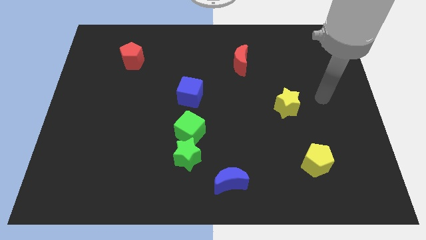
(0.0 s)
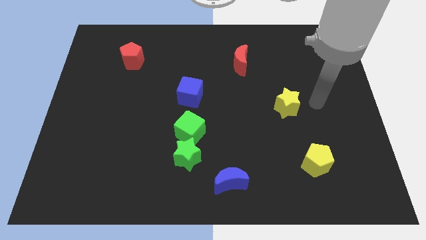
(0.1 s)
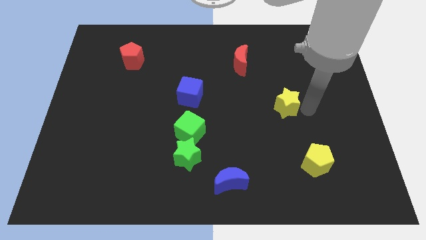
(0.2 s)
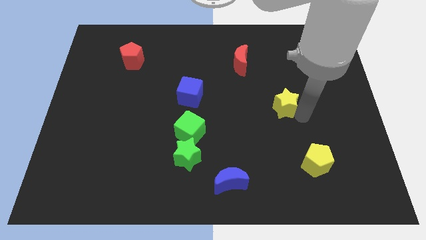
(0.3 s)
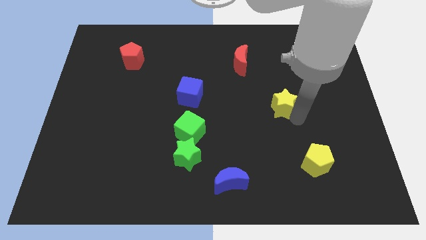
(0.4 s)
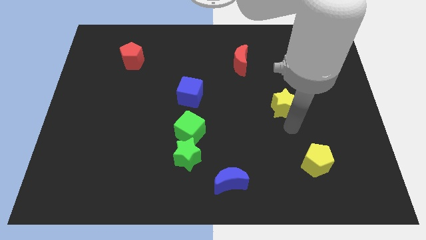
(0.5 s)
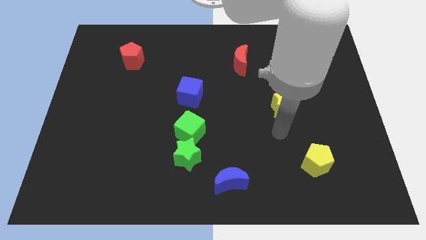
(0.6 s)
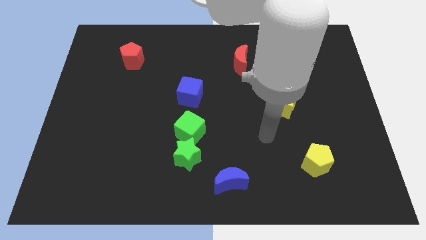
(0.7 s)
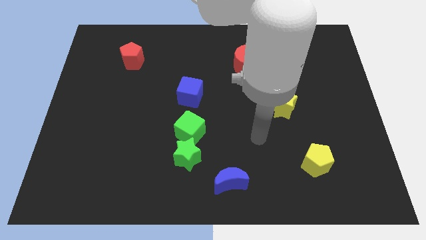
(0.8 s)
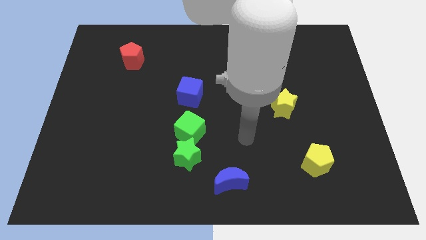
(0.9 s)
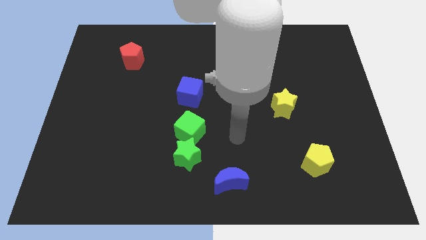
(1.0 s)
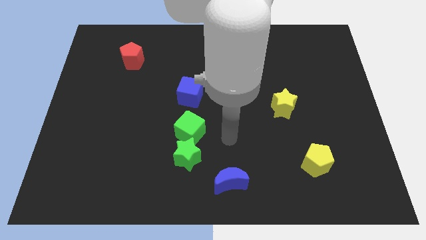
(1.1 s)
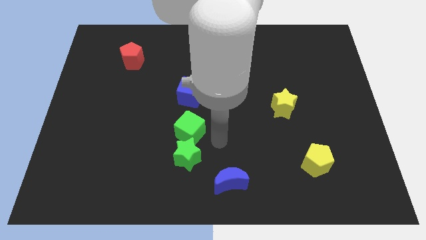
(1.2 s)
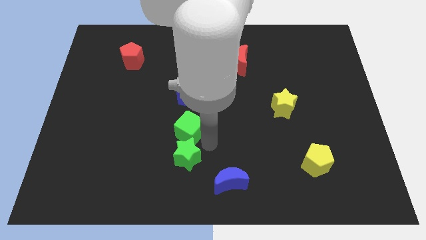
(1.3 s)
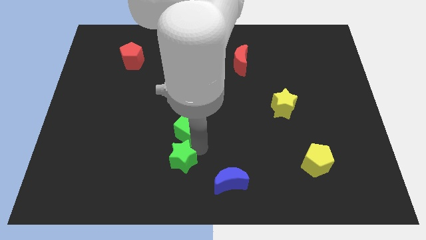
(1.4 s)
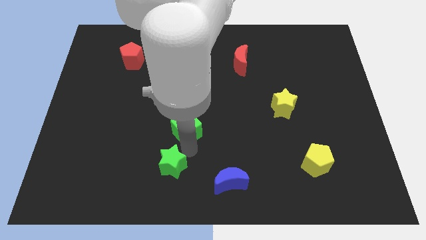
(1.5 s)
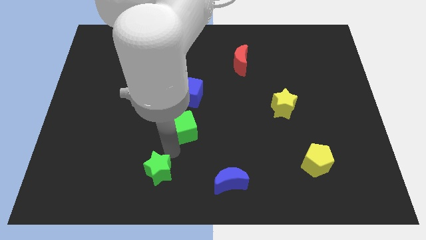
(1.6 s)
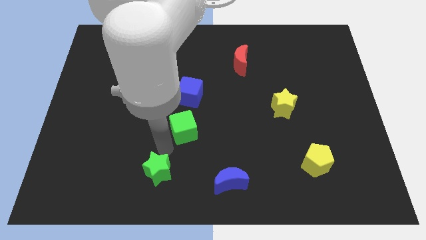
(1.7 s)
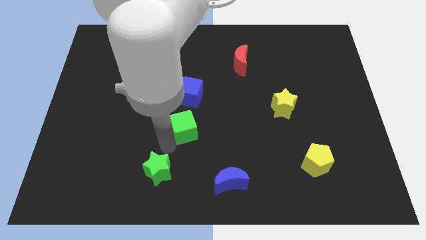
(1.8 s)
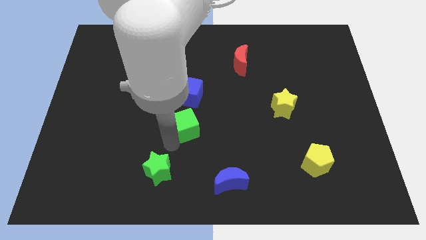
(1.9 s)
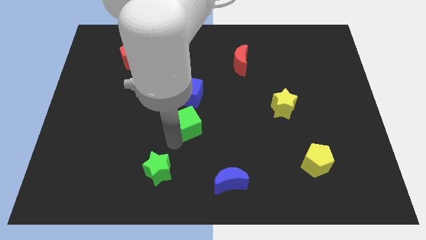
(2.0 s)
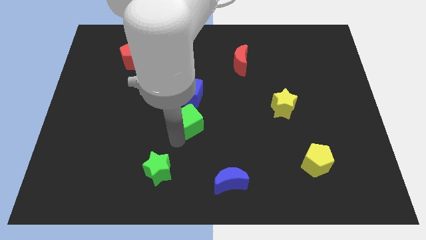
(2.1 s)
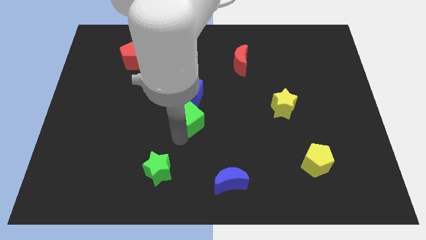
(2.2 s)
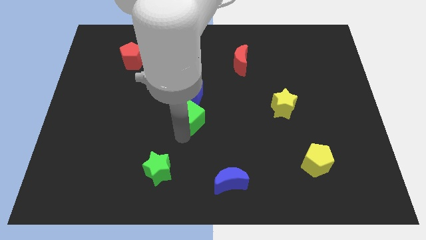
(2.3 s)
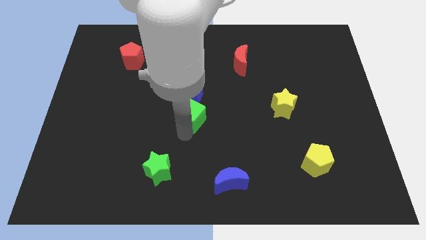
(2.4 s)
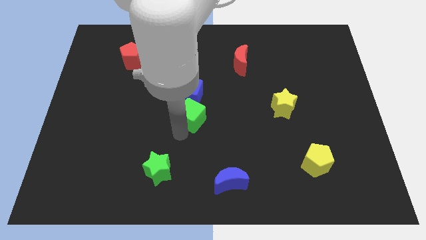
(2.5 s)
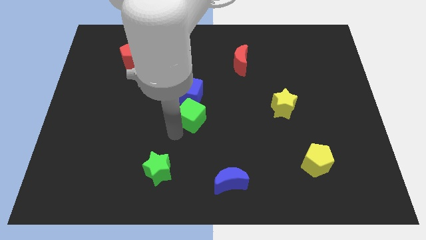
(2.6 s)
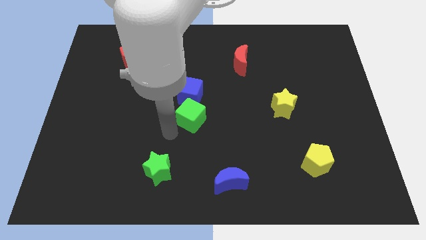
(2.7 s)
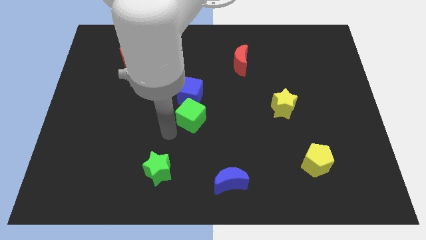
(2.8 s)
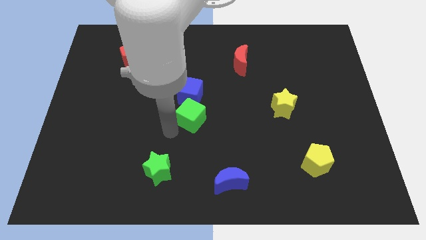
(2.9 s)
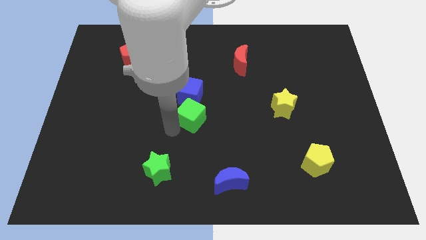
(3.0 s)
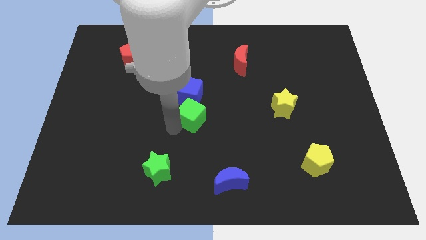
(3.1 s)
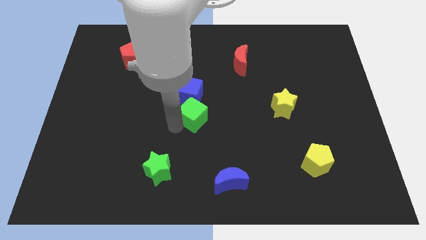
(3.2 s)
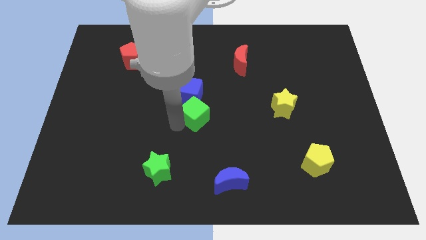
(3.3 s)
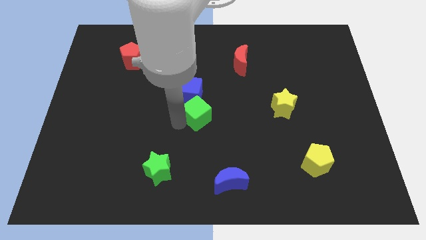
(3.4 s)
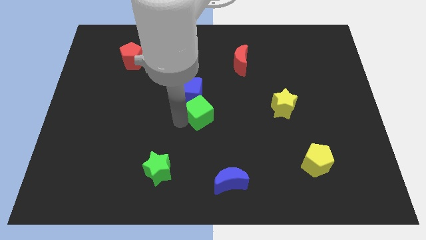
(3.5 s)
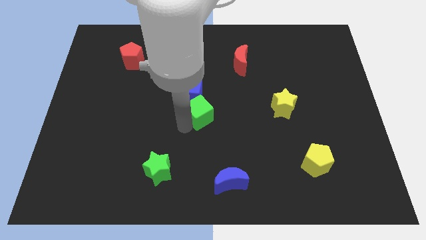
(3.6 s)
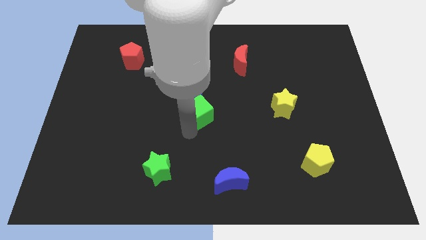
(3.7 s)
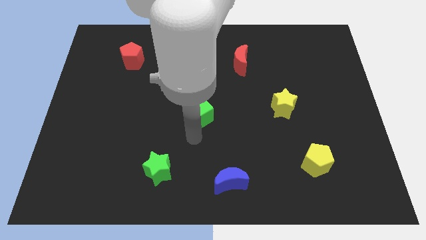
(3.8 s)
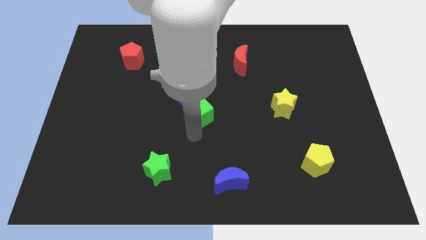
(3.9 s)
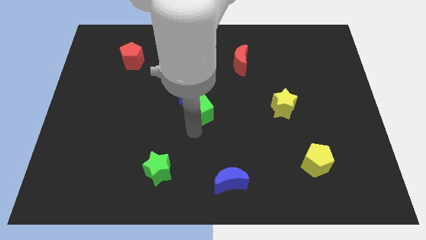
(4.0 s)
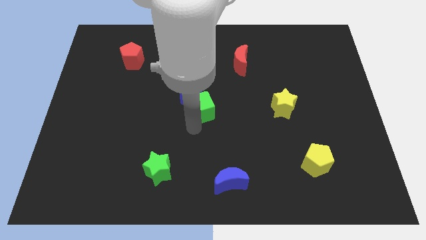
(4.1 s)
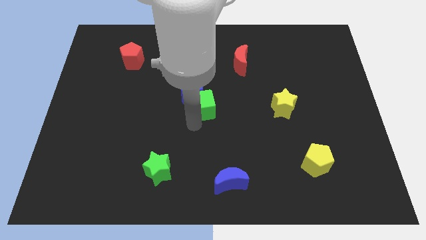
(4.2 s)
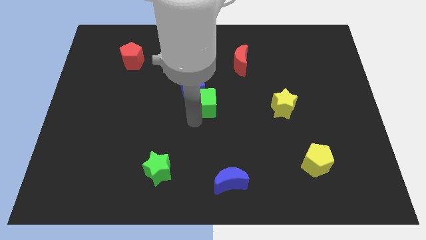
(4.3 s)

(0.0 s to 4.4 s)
move the green cube a bit up

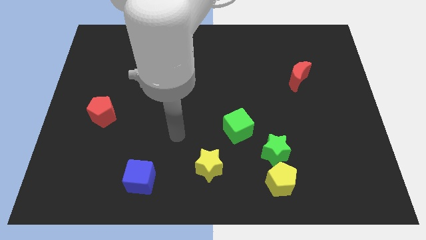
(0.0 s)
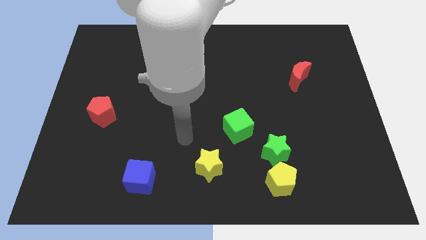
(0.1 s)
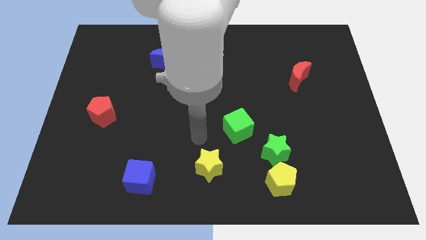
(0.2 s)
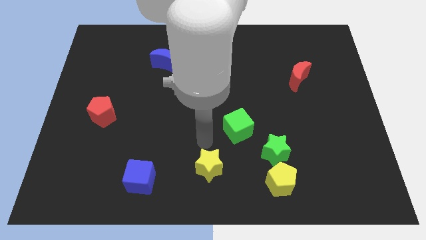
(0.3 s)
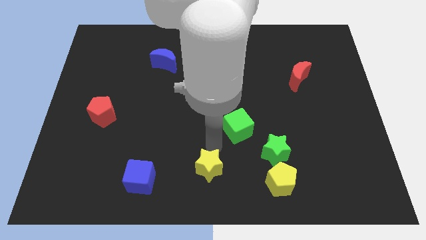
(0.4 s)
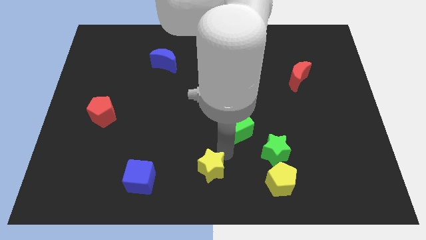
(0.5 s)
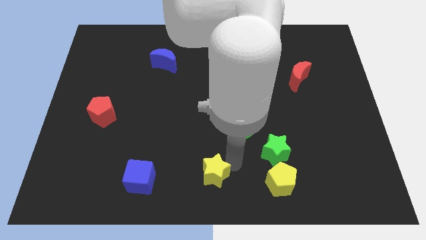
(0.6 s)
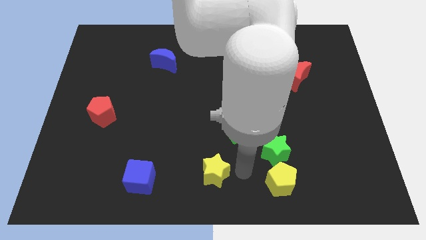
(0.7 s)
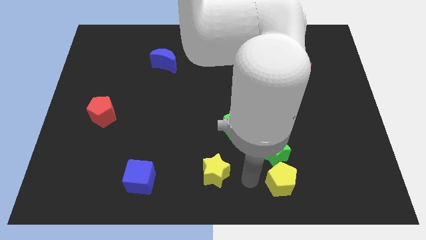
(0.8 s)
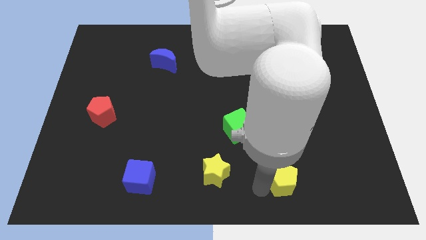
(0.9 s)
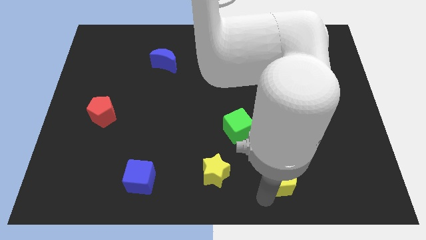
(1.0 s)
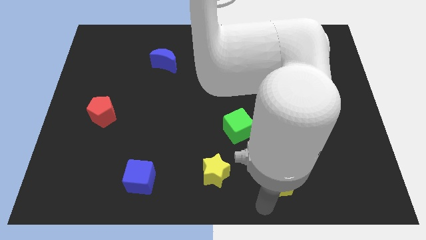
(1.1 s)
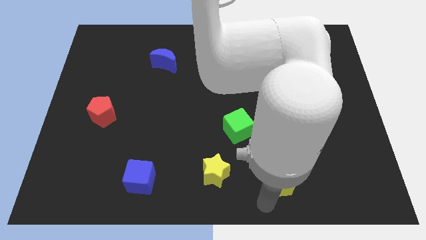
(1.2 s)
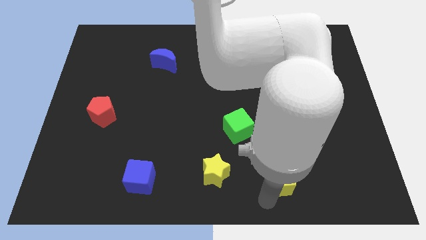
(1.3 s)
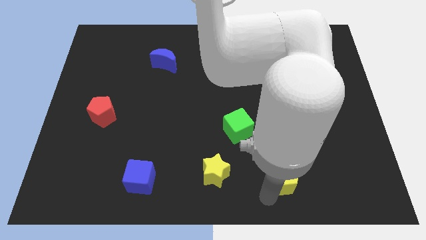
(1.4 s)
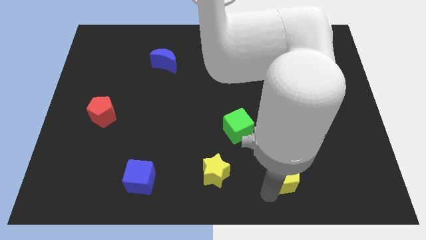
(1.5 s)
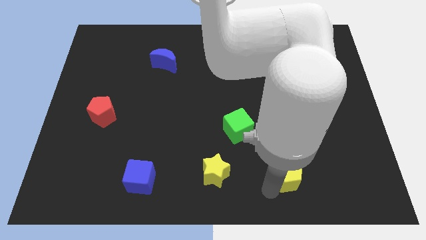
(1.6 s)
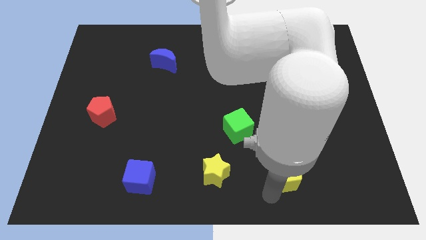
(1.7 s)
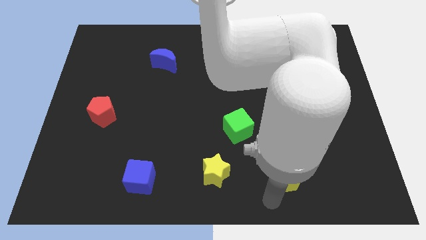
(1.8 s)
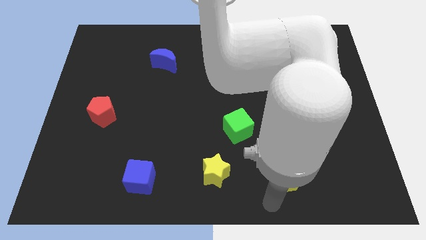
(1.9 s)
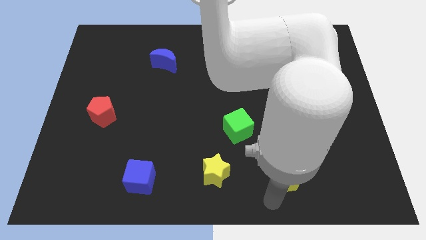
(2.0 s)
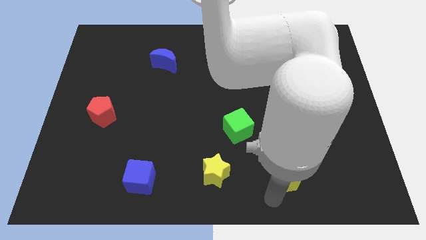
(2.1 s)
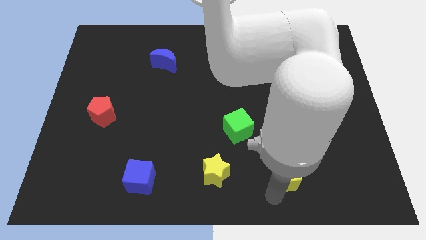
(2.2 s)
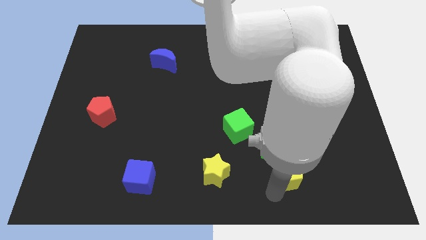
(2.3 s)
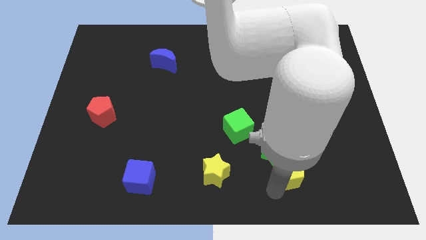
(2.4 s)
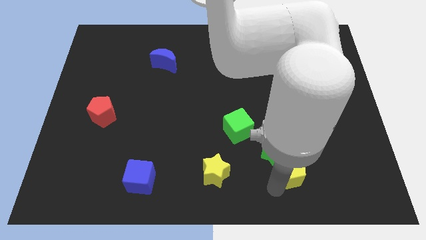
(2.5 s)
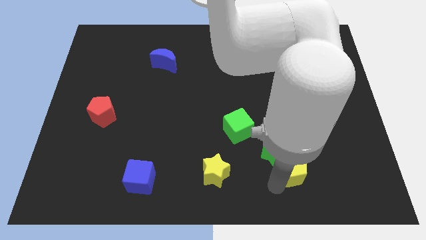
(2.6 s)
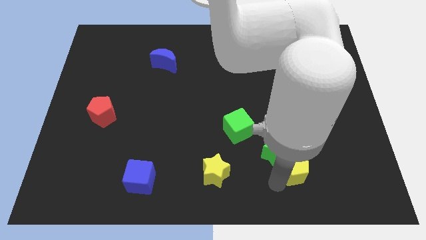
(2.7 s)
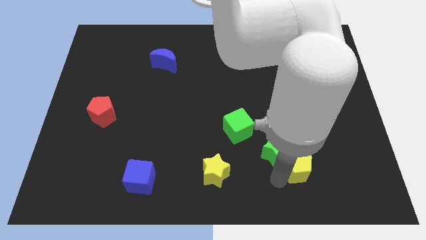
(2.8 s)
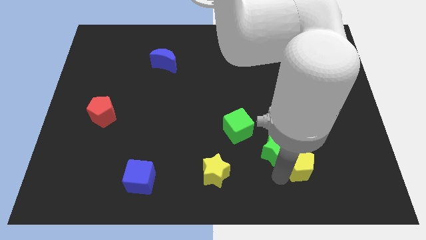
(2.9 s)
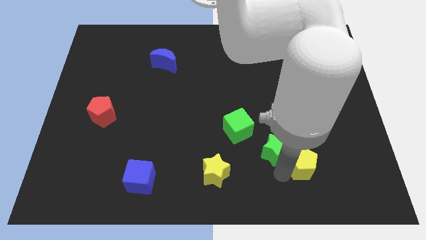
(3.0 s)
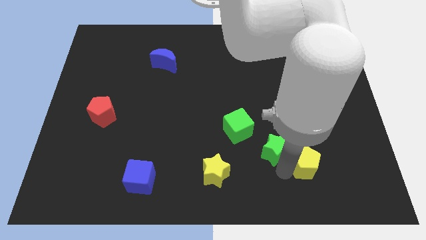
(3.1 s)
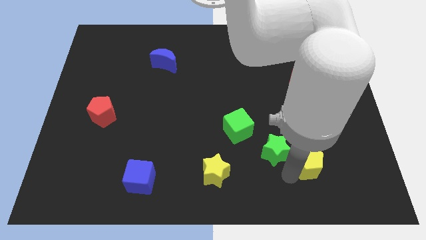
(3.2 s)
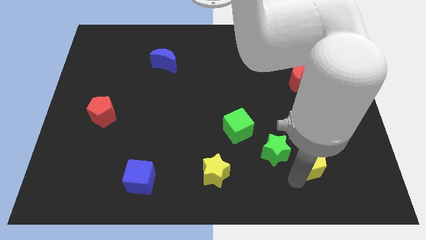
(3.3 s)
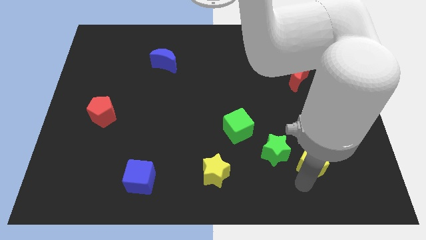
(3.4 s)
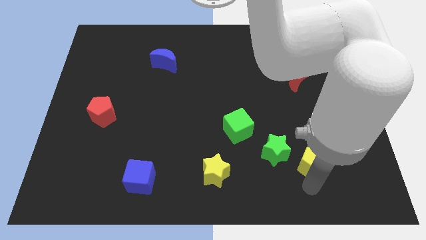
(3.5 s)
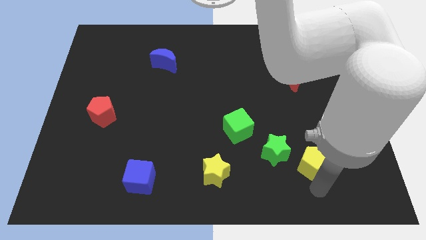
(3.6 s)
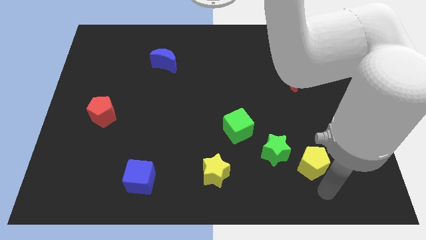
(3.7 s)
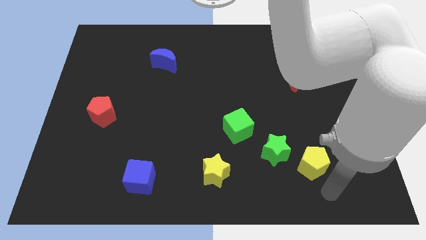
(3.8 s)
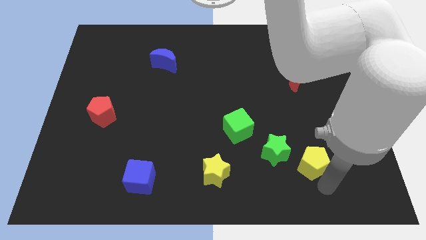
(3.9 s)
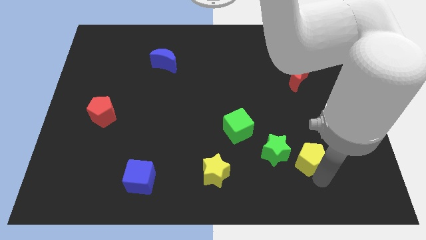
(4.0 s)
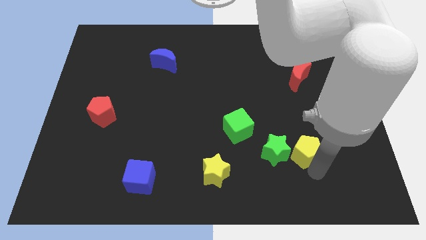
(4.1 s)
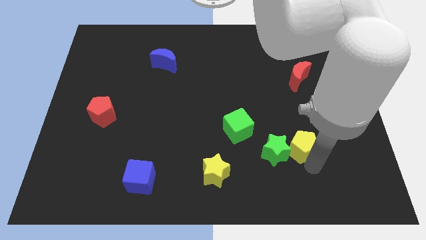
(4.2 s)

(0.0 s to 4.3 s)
push the yellow pentagon up a little
